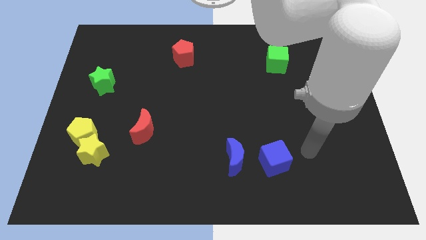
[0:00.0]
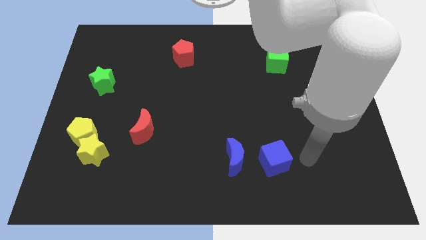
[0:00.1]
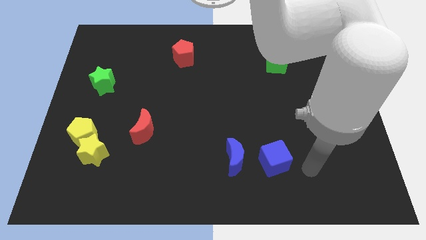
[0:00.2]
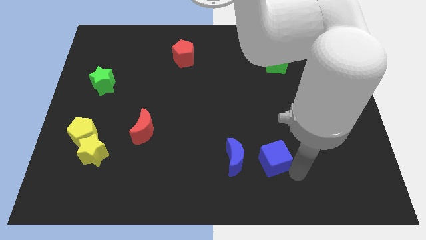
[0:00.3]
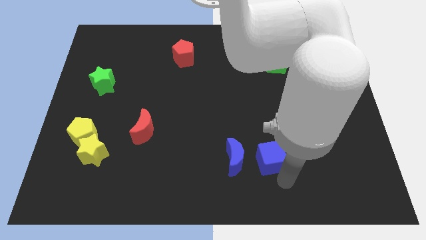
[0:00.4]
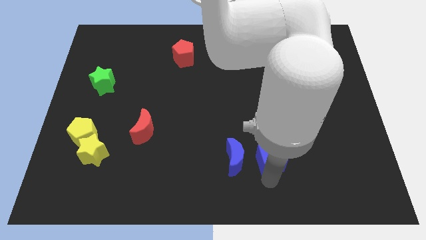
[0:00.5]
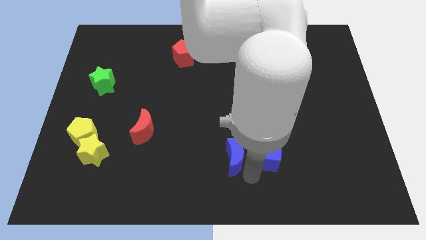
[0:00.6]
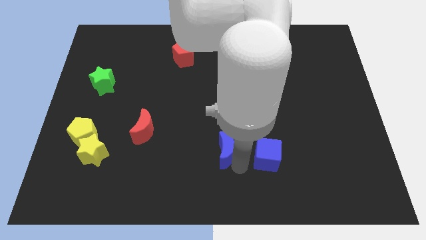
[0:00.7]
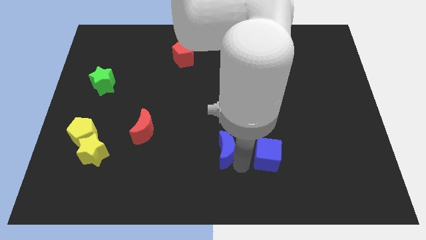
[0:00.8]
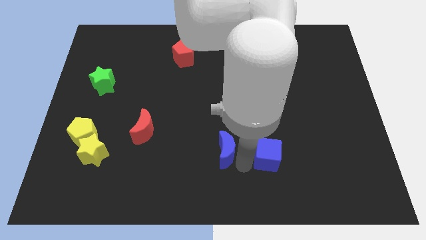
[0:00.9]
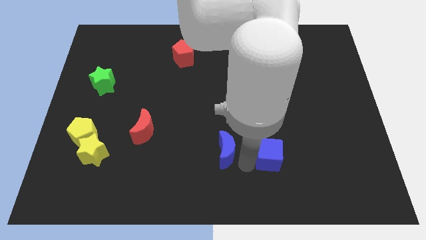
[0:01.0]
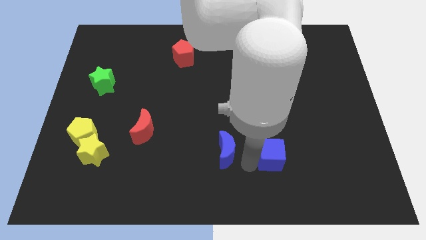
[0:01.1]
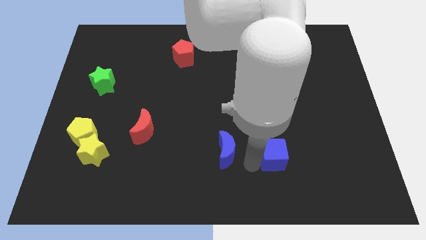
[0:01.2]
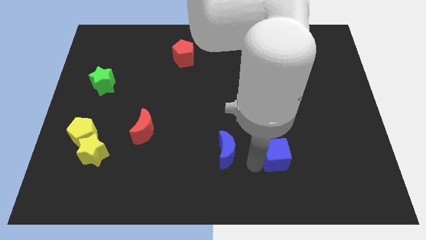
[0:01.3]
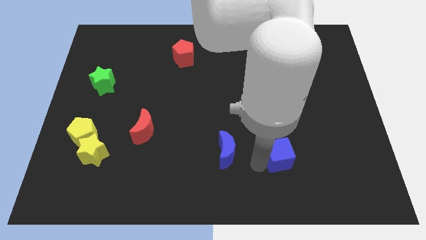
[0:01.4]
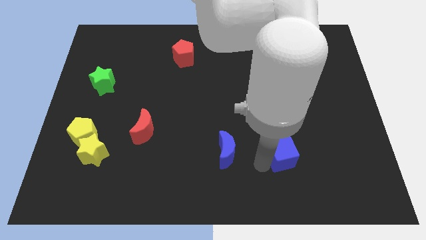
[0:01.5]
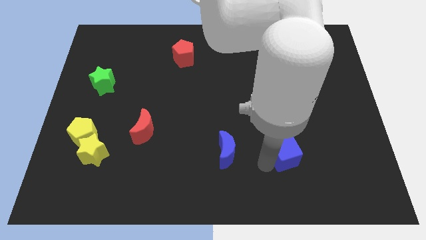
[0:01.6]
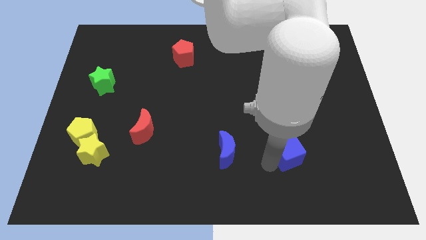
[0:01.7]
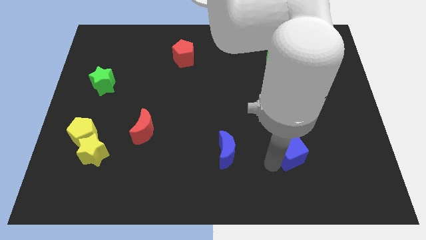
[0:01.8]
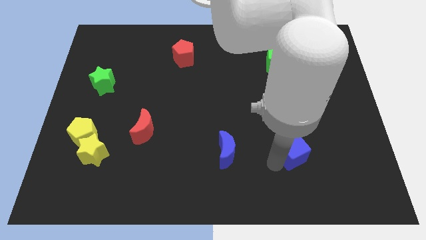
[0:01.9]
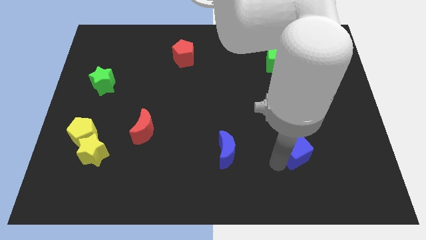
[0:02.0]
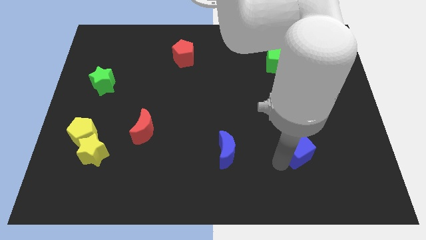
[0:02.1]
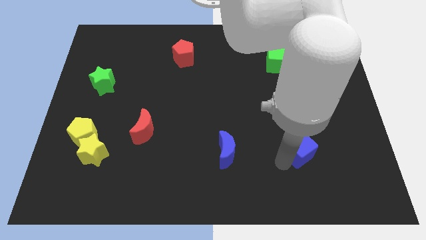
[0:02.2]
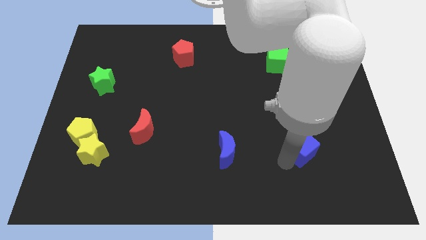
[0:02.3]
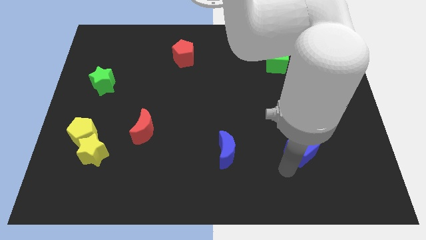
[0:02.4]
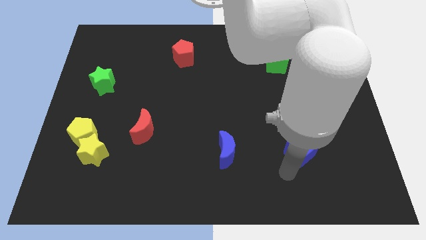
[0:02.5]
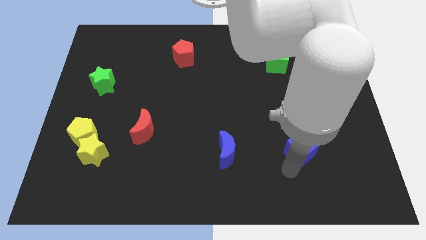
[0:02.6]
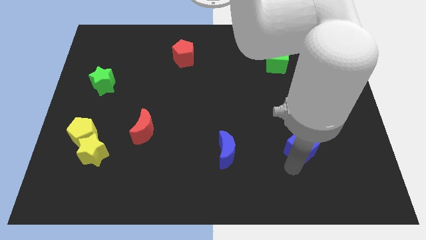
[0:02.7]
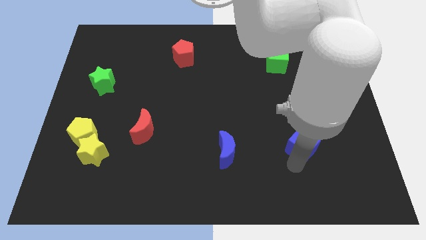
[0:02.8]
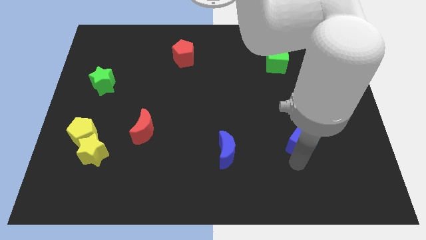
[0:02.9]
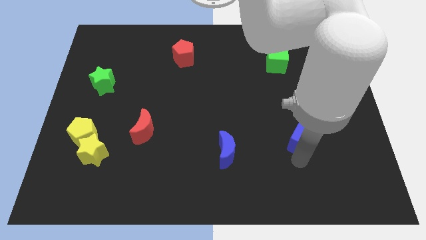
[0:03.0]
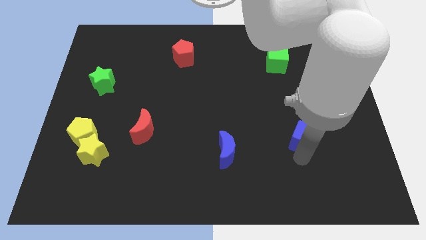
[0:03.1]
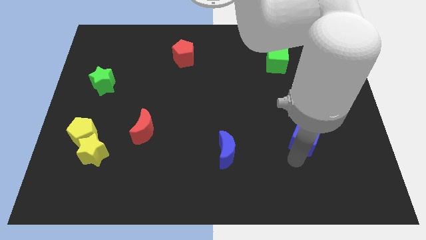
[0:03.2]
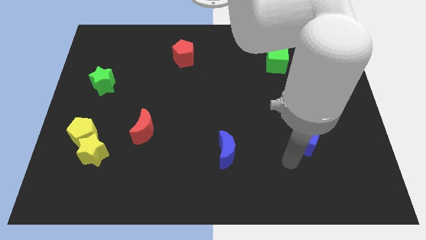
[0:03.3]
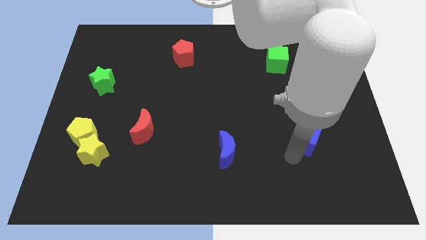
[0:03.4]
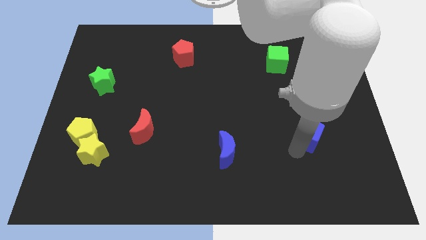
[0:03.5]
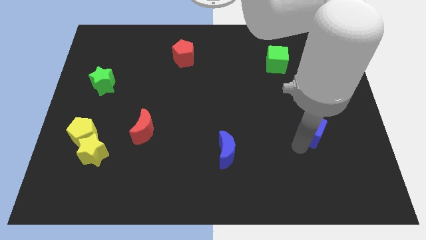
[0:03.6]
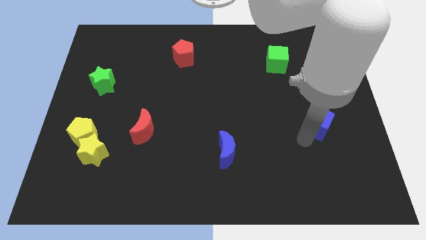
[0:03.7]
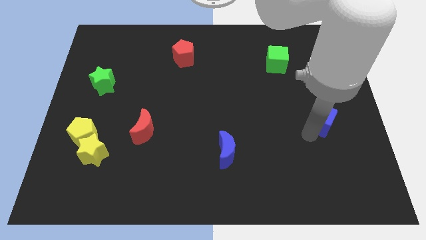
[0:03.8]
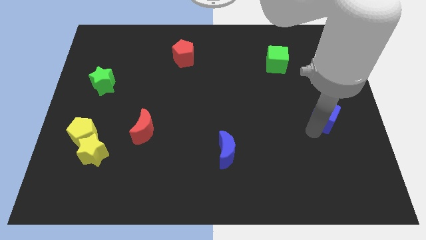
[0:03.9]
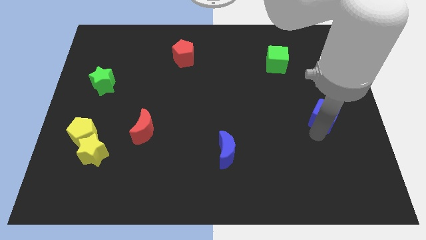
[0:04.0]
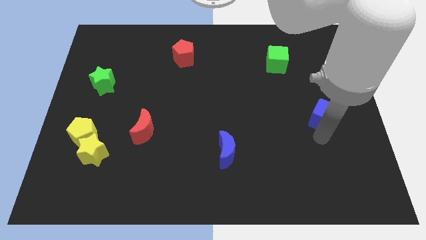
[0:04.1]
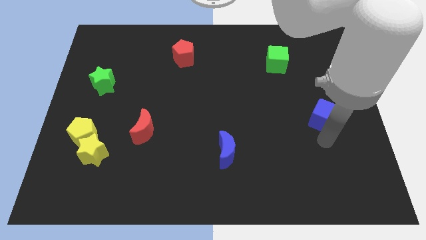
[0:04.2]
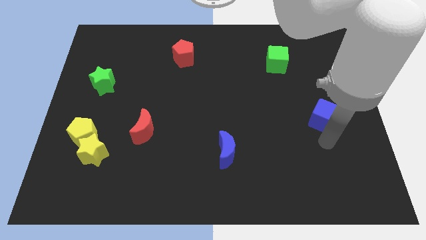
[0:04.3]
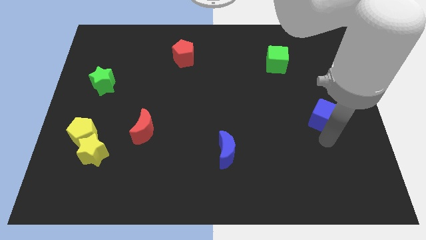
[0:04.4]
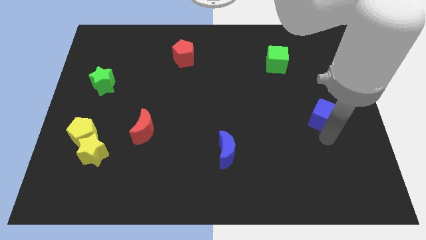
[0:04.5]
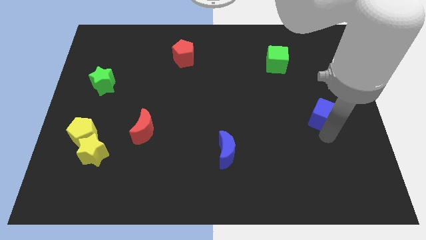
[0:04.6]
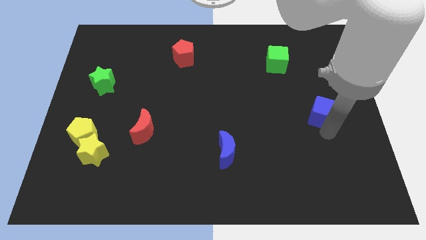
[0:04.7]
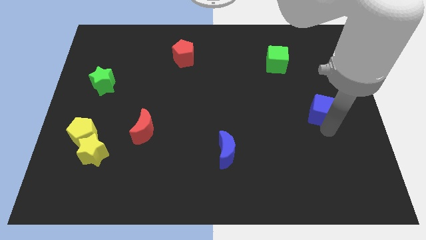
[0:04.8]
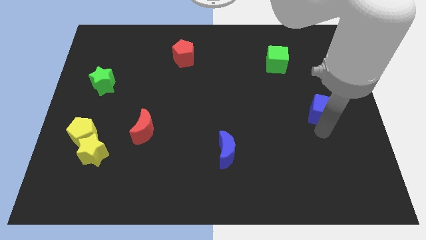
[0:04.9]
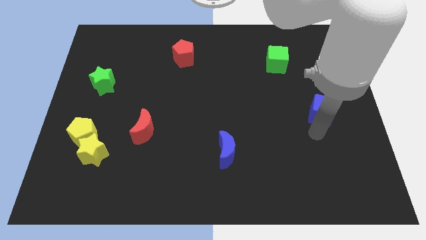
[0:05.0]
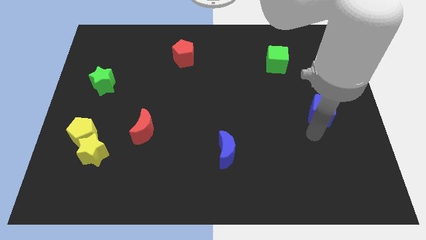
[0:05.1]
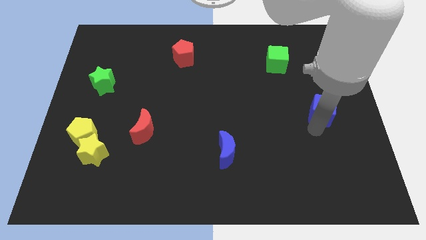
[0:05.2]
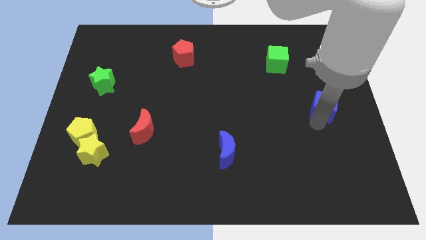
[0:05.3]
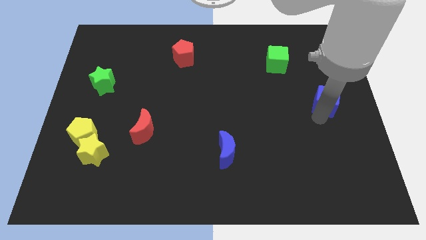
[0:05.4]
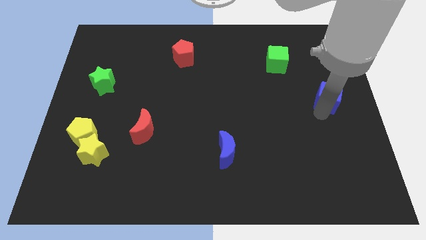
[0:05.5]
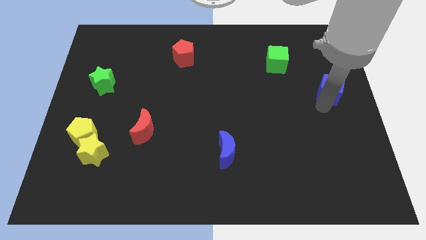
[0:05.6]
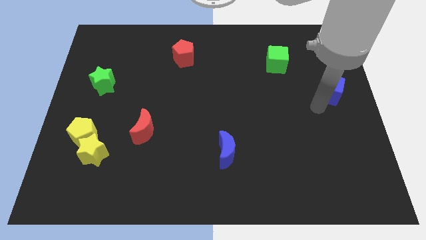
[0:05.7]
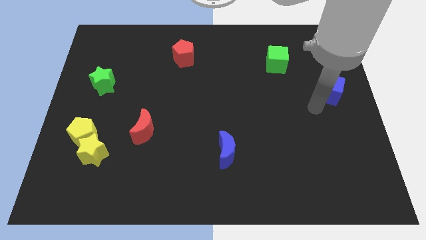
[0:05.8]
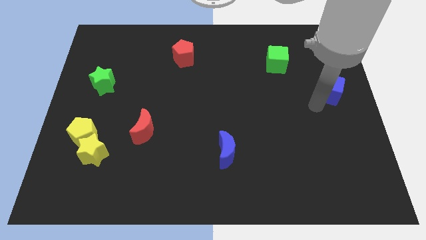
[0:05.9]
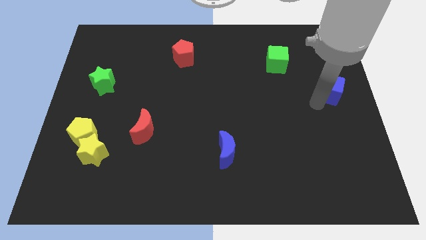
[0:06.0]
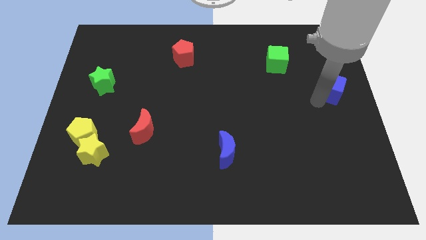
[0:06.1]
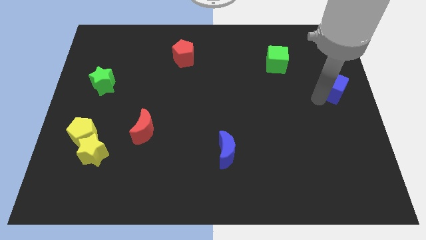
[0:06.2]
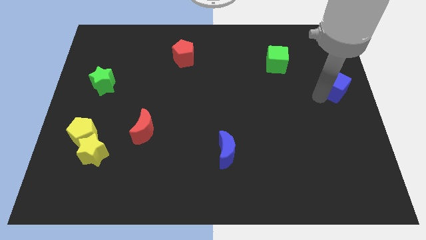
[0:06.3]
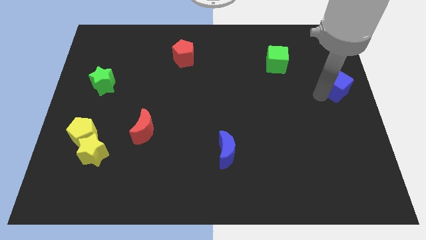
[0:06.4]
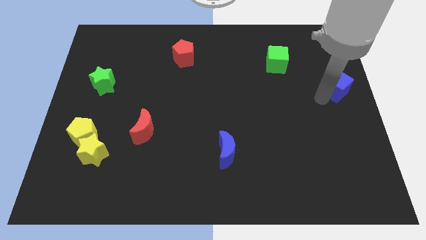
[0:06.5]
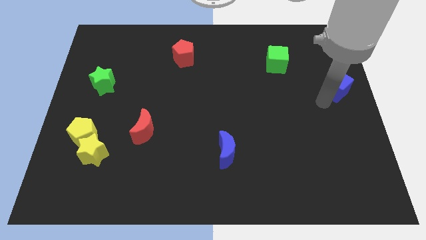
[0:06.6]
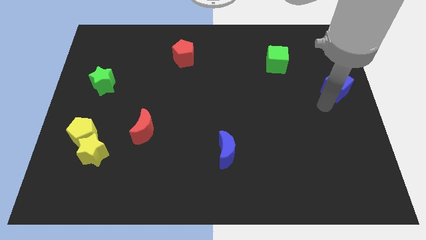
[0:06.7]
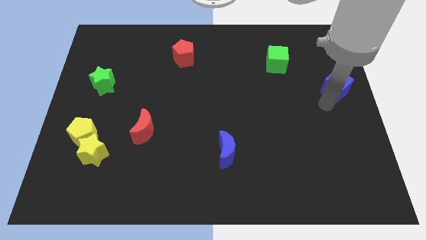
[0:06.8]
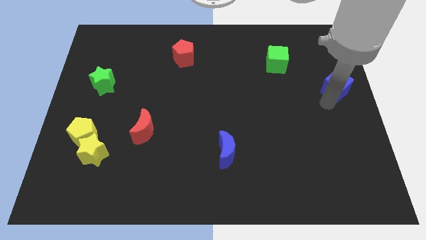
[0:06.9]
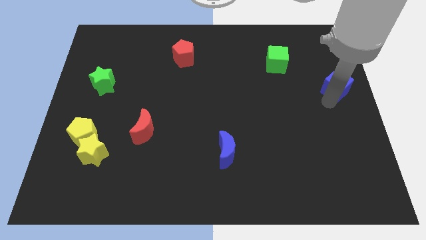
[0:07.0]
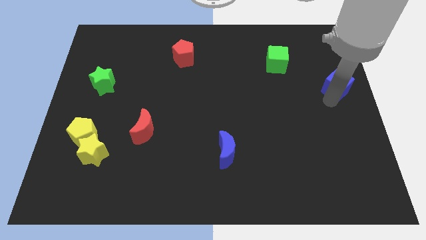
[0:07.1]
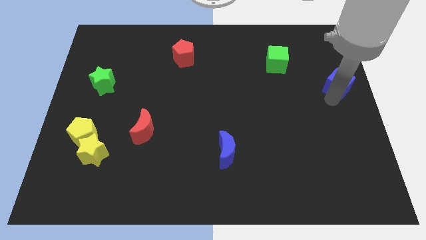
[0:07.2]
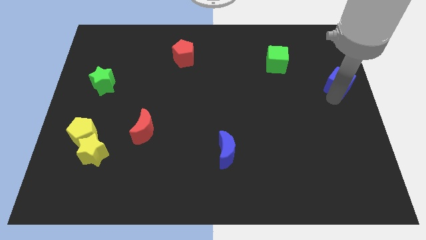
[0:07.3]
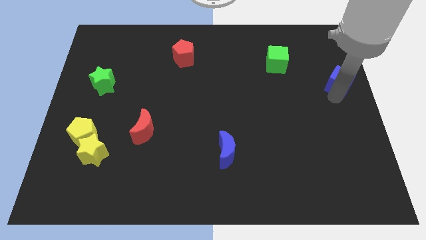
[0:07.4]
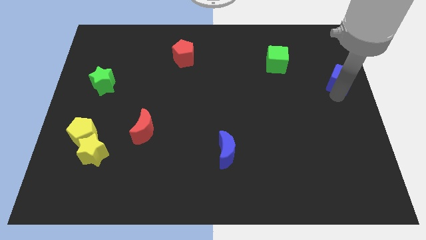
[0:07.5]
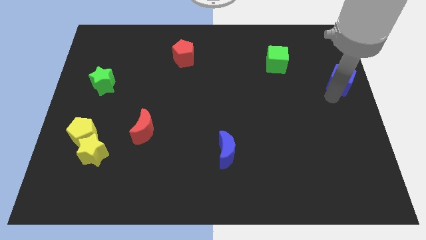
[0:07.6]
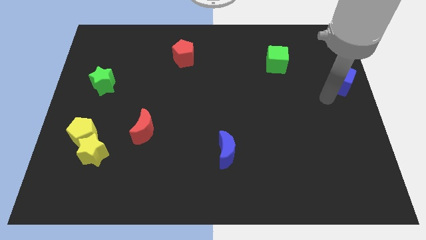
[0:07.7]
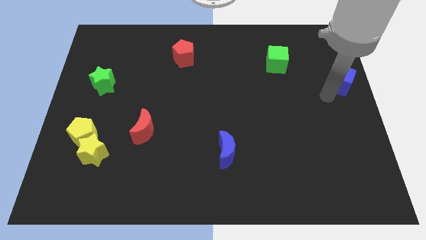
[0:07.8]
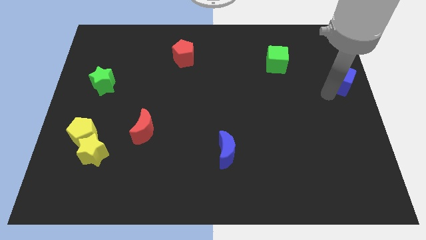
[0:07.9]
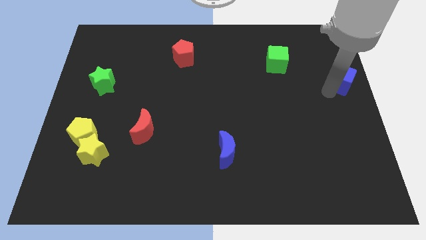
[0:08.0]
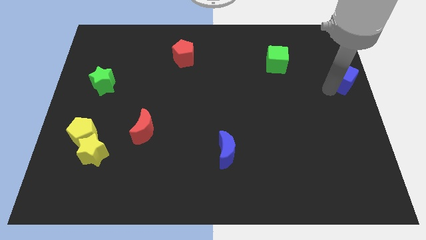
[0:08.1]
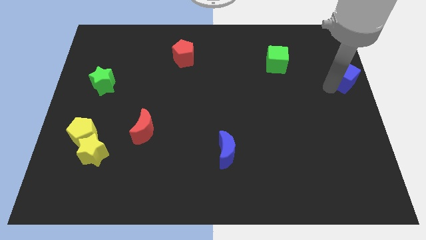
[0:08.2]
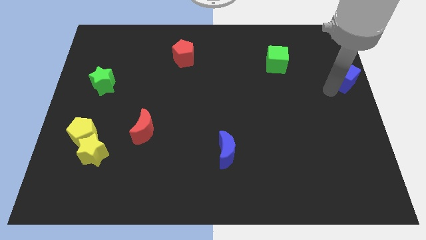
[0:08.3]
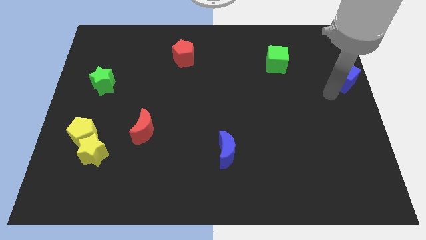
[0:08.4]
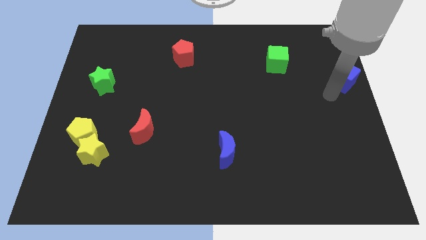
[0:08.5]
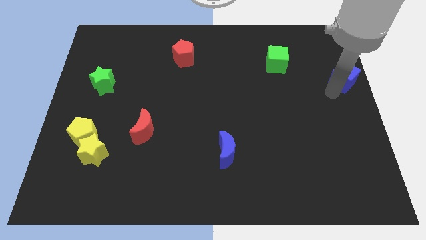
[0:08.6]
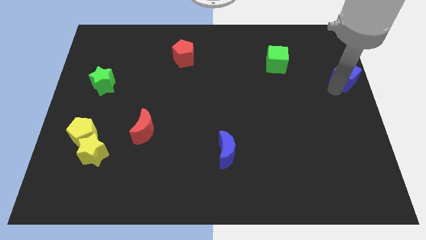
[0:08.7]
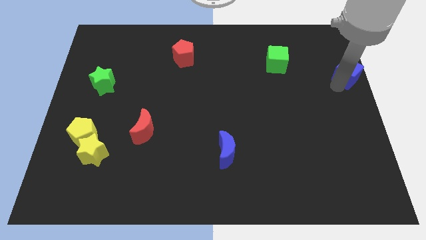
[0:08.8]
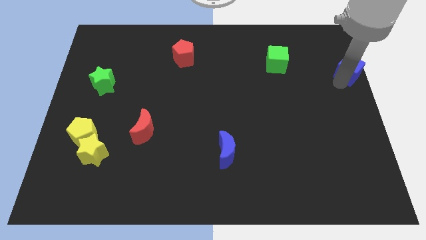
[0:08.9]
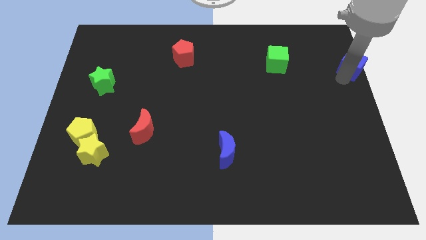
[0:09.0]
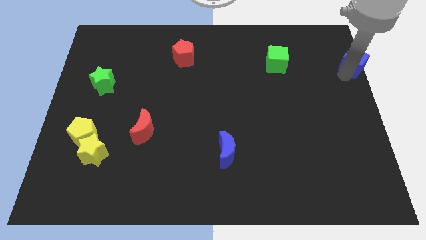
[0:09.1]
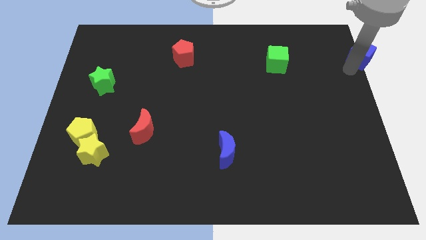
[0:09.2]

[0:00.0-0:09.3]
move the blue cube to the top right of the board
